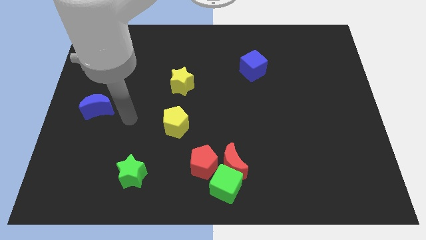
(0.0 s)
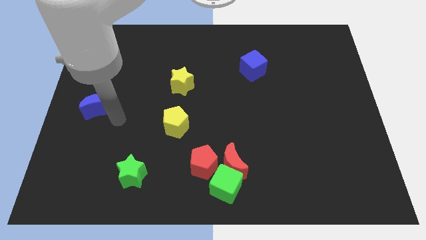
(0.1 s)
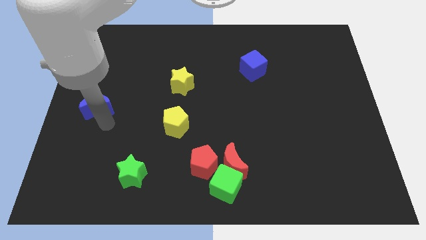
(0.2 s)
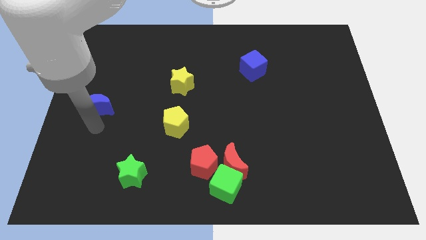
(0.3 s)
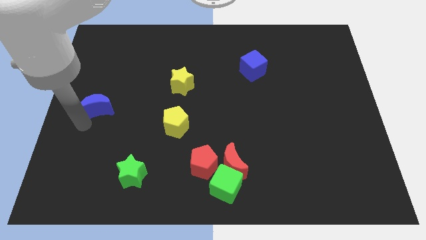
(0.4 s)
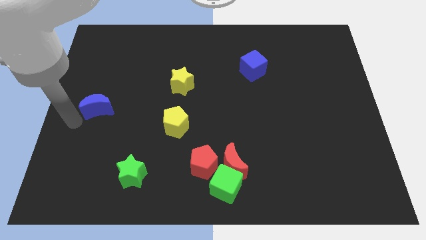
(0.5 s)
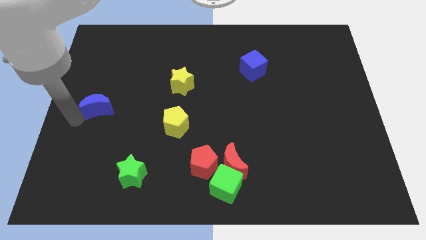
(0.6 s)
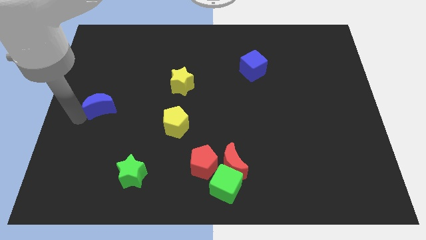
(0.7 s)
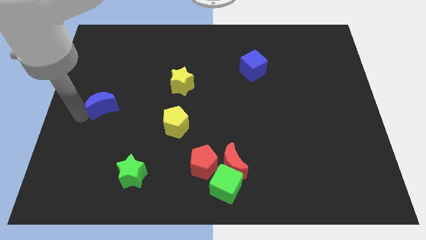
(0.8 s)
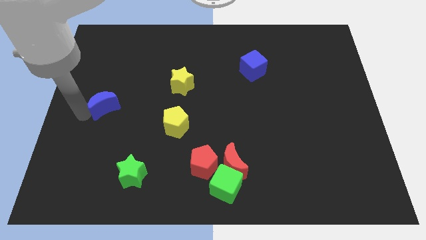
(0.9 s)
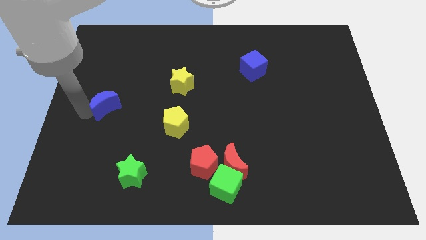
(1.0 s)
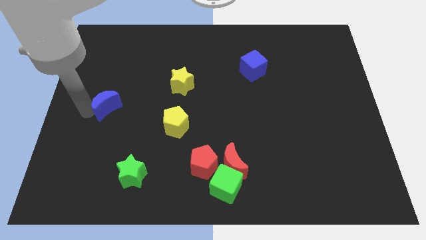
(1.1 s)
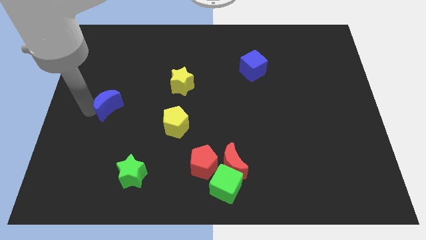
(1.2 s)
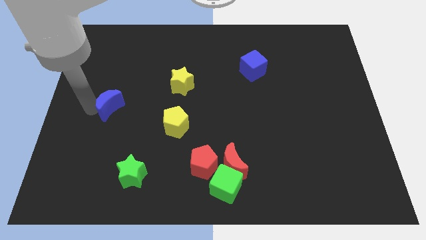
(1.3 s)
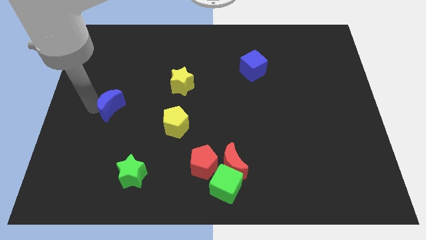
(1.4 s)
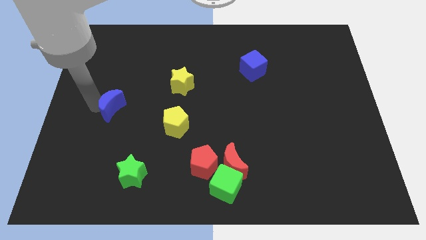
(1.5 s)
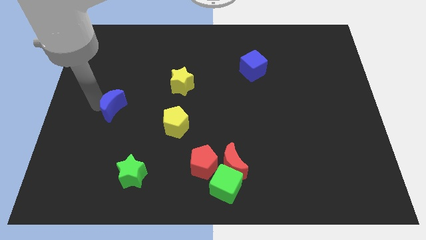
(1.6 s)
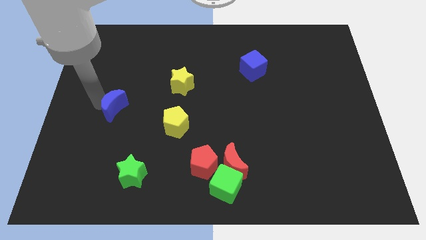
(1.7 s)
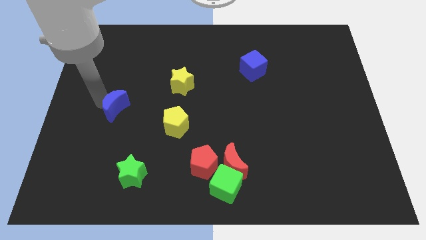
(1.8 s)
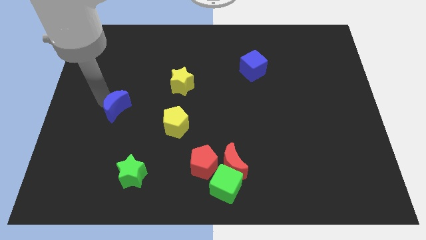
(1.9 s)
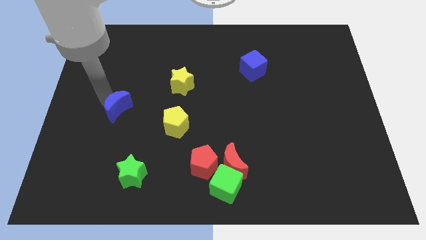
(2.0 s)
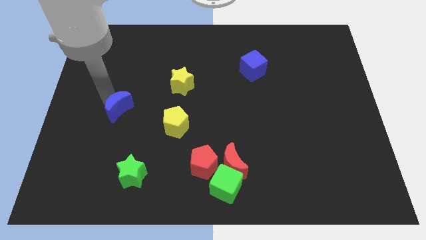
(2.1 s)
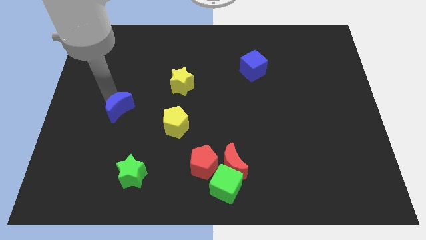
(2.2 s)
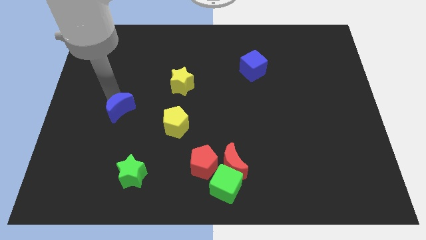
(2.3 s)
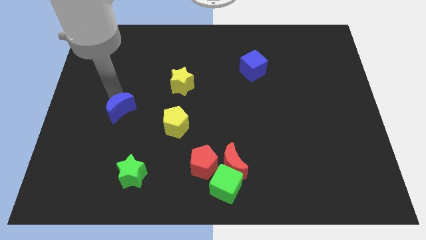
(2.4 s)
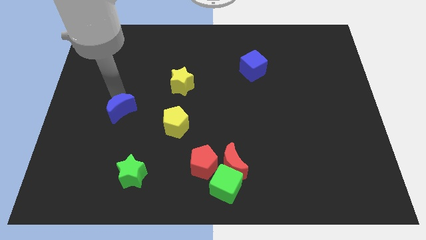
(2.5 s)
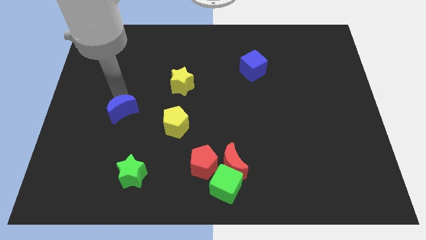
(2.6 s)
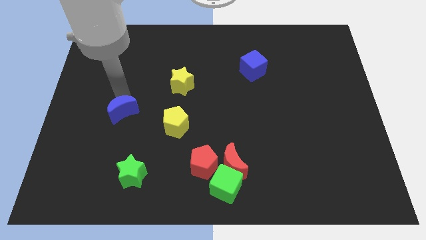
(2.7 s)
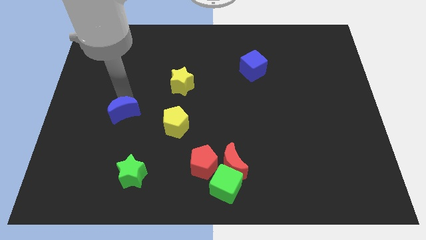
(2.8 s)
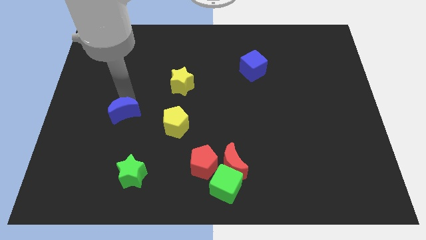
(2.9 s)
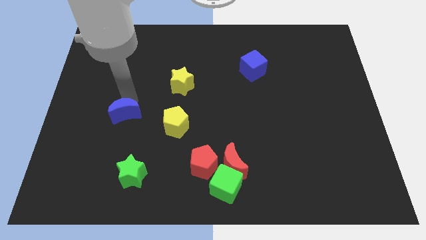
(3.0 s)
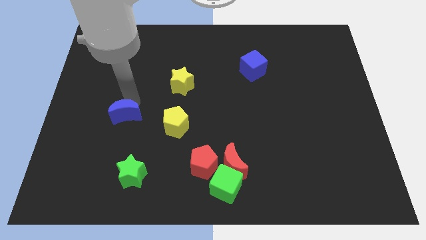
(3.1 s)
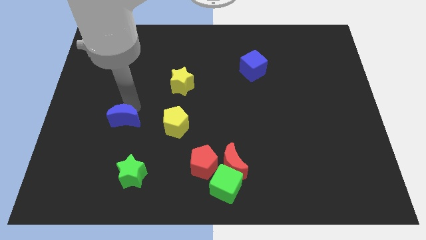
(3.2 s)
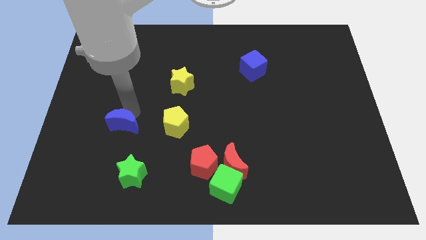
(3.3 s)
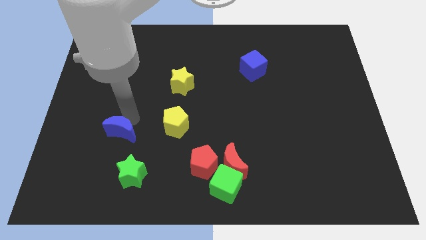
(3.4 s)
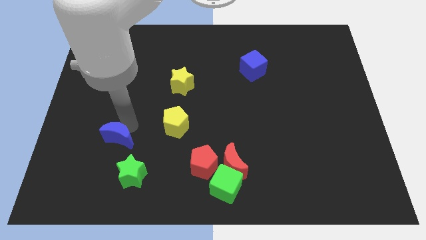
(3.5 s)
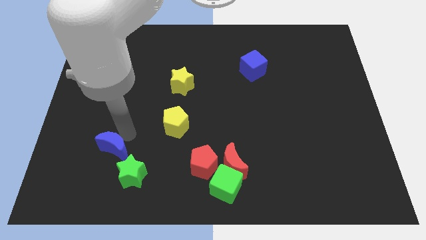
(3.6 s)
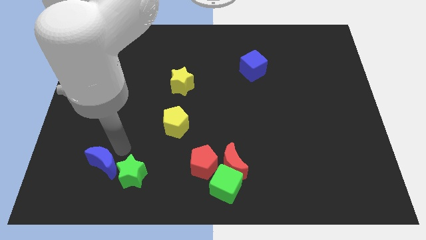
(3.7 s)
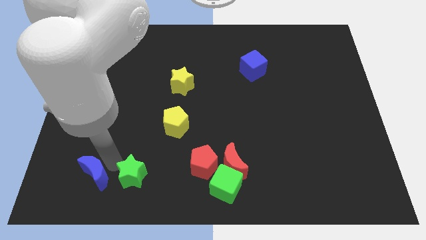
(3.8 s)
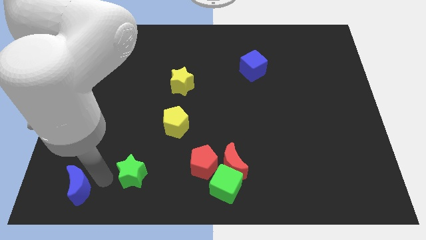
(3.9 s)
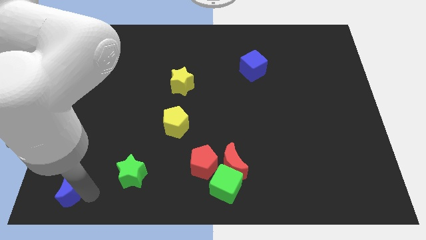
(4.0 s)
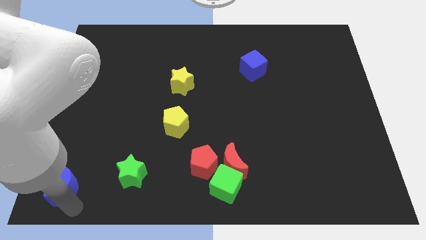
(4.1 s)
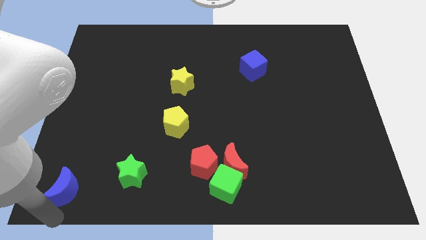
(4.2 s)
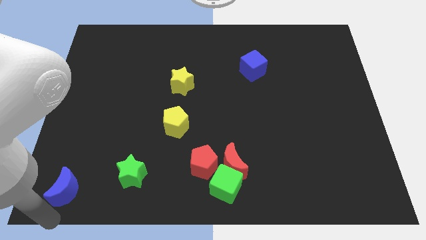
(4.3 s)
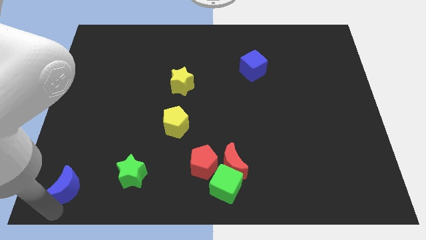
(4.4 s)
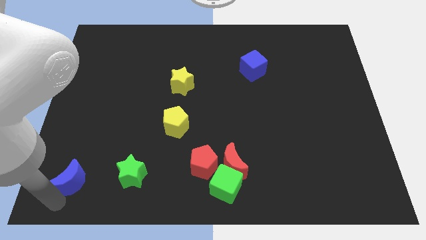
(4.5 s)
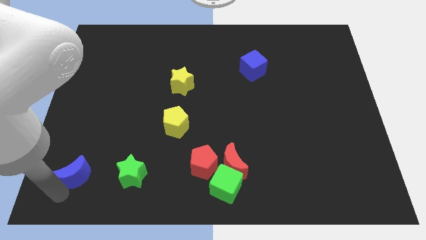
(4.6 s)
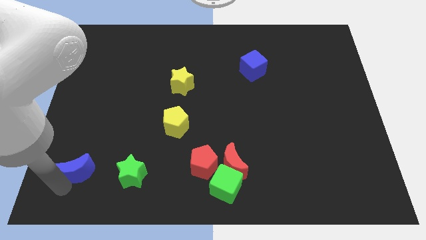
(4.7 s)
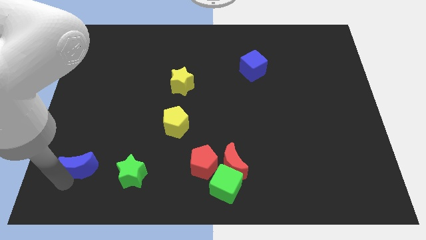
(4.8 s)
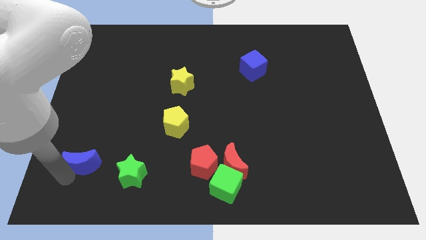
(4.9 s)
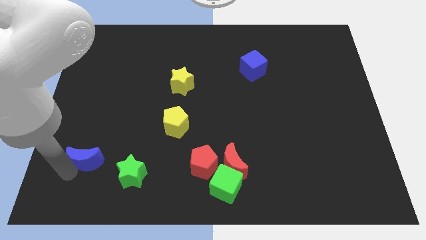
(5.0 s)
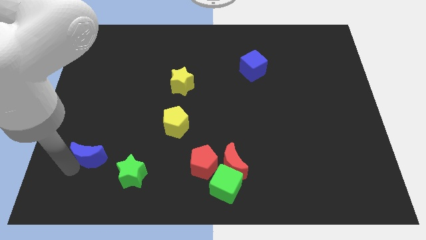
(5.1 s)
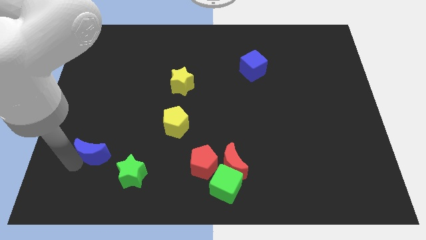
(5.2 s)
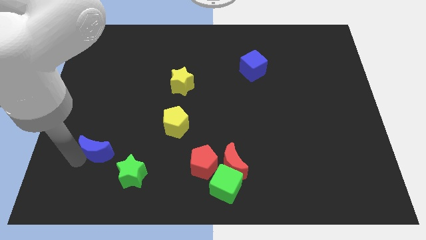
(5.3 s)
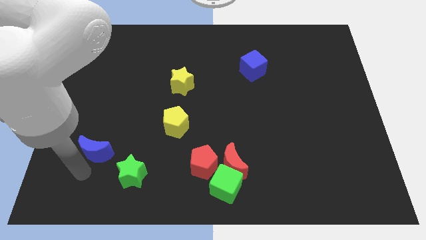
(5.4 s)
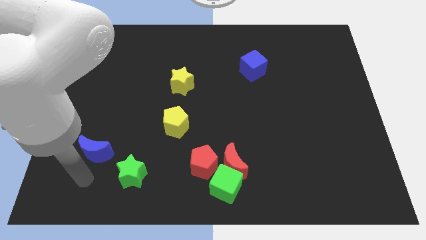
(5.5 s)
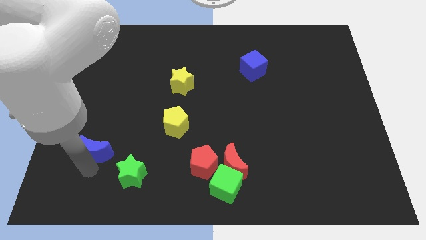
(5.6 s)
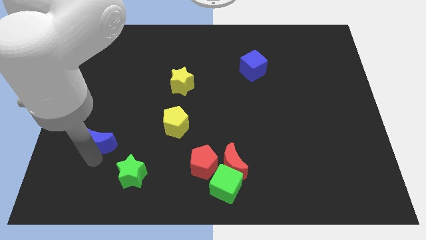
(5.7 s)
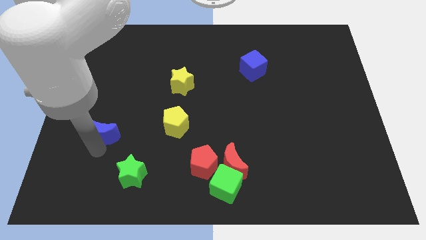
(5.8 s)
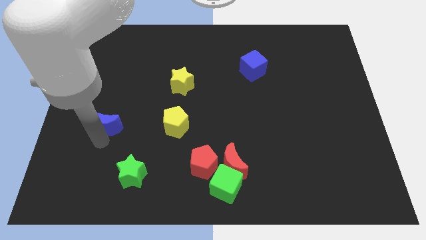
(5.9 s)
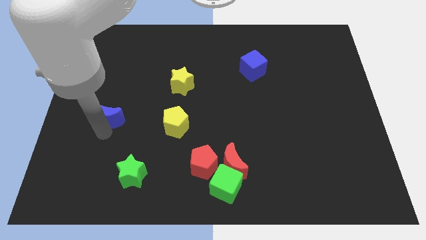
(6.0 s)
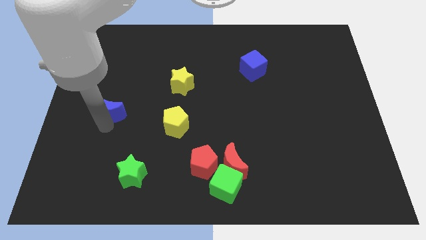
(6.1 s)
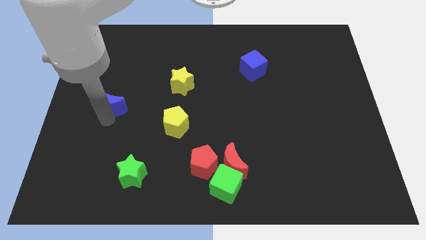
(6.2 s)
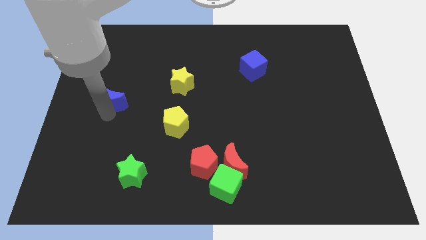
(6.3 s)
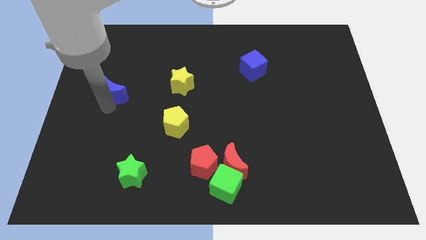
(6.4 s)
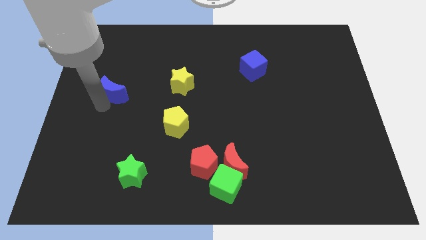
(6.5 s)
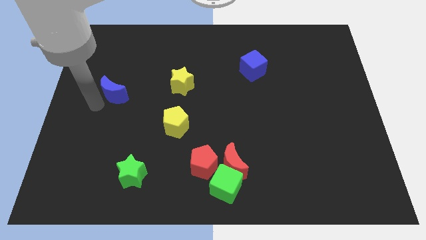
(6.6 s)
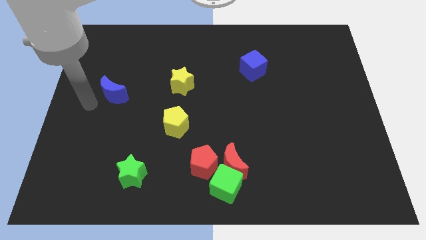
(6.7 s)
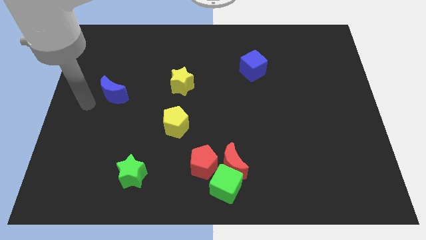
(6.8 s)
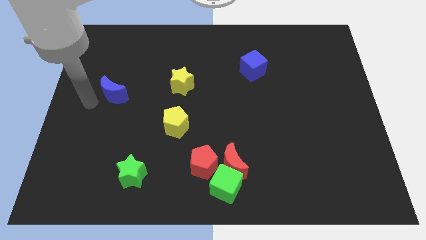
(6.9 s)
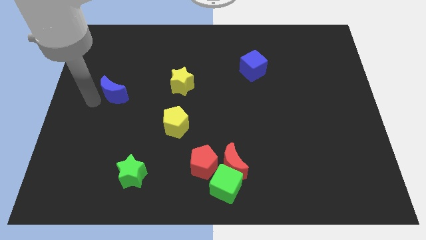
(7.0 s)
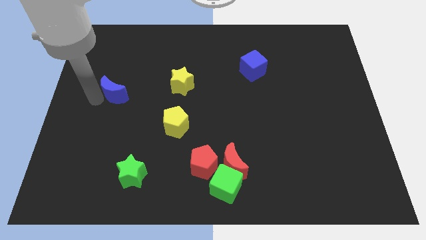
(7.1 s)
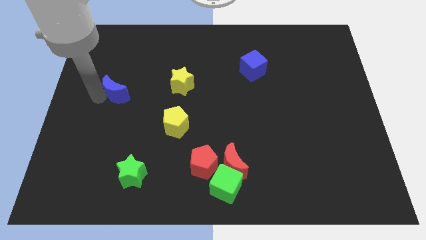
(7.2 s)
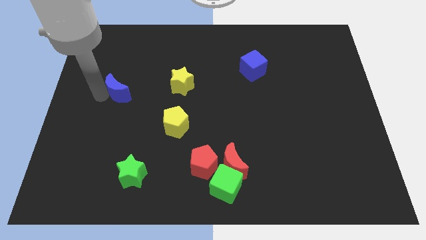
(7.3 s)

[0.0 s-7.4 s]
move the blue moon to the left side of the yellow star

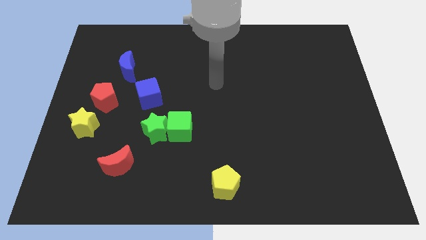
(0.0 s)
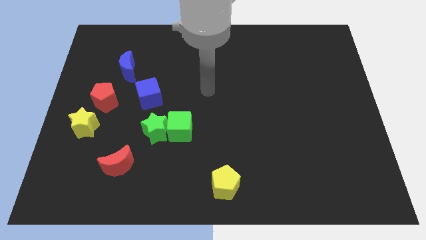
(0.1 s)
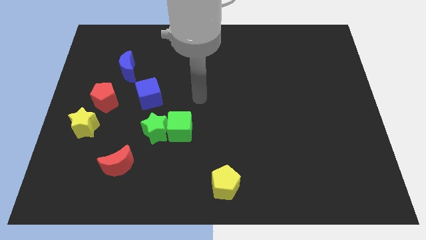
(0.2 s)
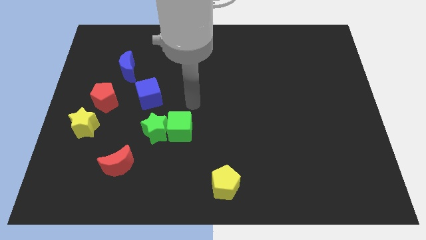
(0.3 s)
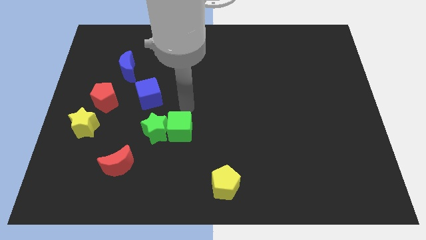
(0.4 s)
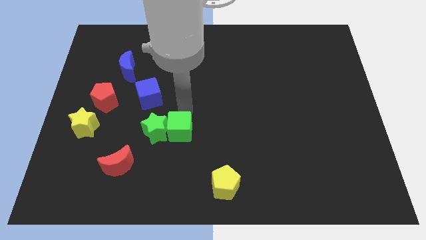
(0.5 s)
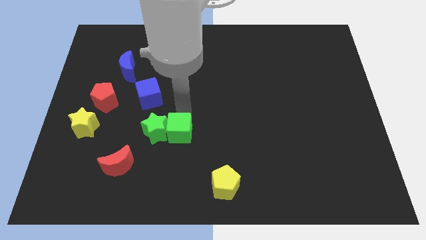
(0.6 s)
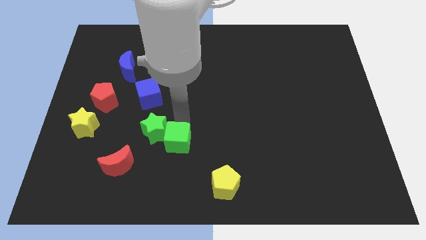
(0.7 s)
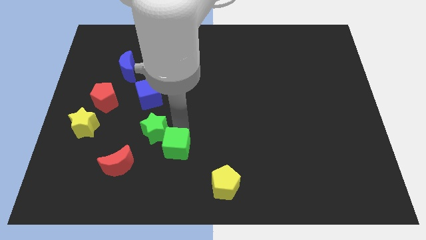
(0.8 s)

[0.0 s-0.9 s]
move the green cube to the right side of the red moon
